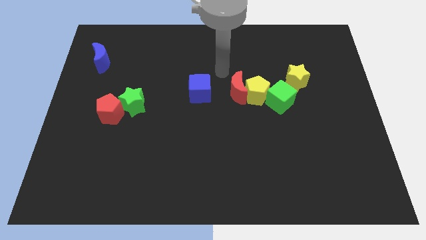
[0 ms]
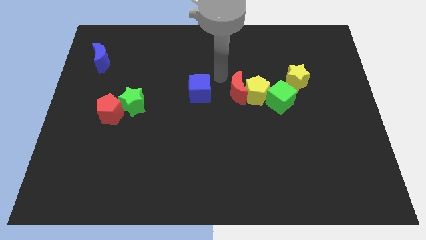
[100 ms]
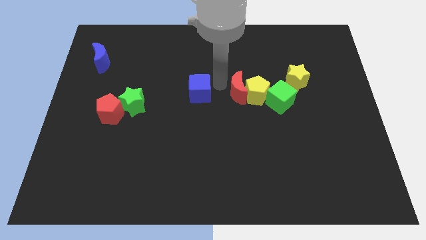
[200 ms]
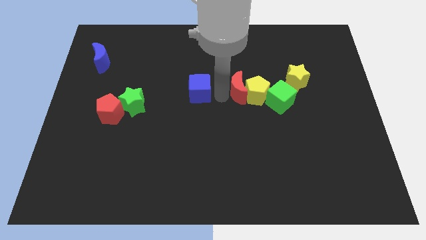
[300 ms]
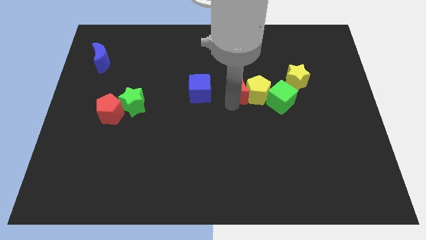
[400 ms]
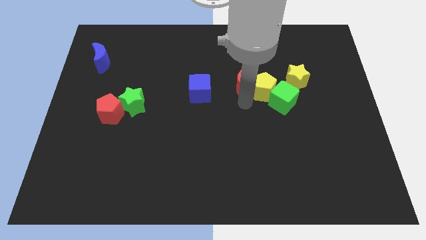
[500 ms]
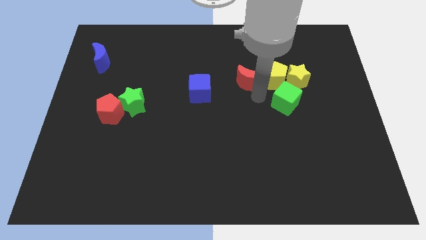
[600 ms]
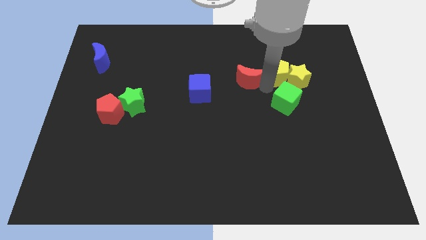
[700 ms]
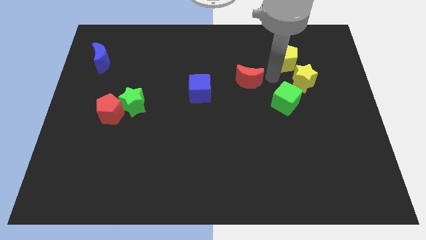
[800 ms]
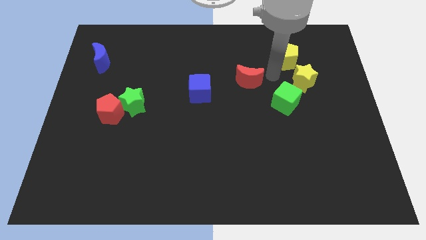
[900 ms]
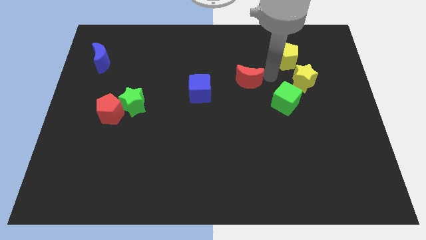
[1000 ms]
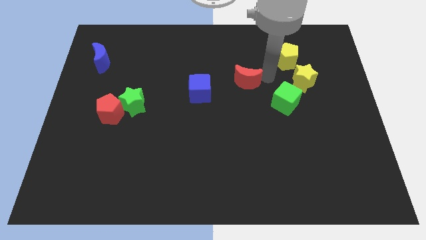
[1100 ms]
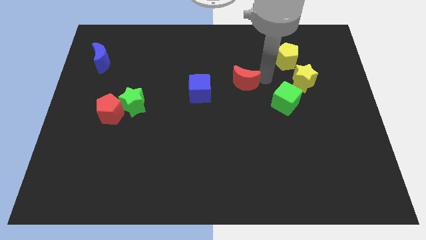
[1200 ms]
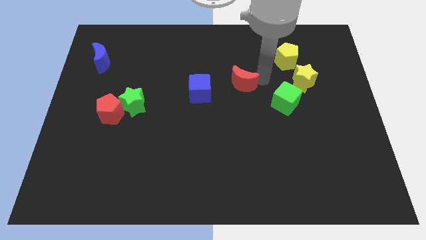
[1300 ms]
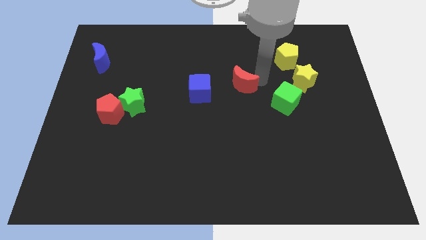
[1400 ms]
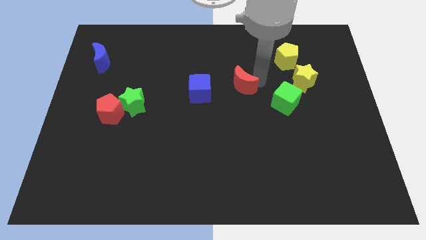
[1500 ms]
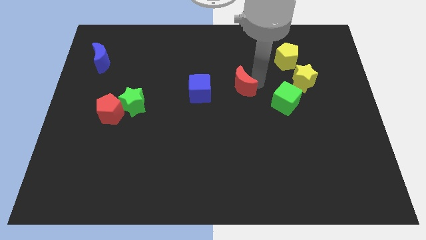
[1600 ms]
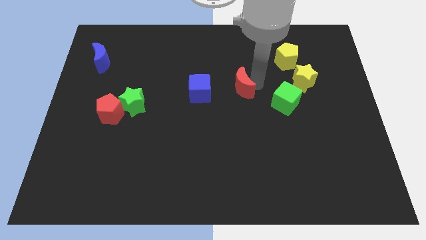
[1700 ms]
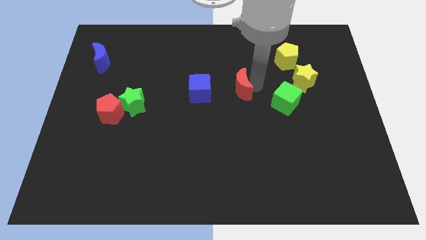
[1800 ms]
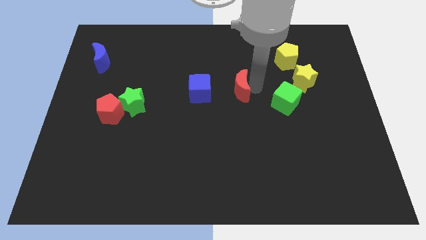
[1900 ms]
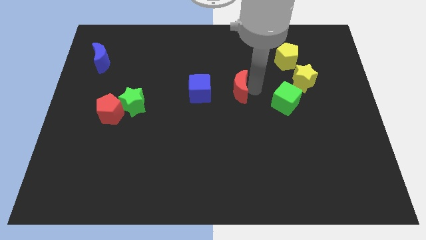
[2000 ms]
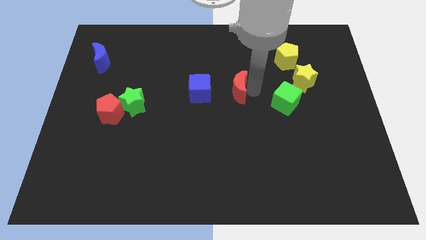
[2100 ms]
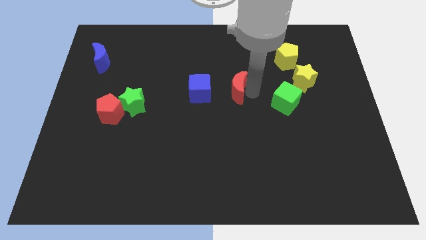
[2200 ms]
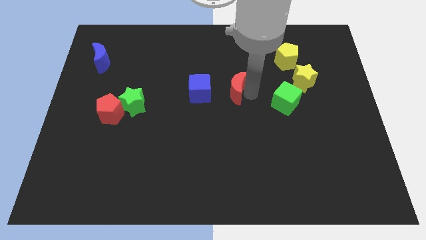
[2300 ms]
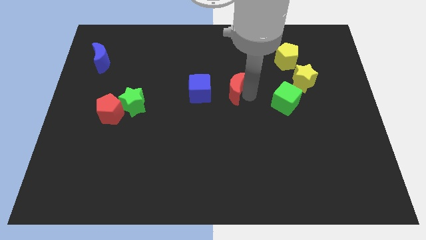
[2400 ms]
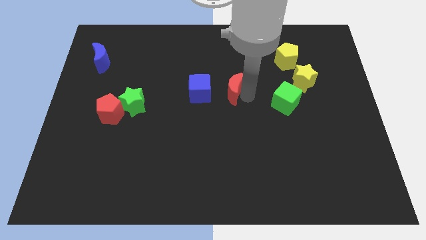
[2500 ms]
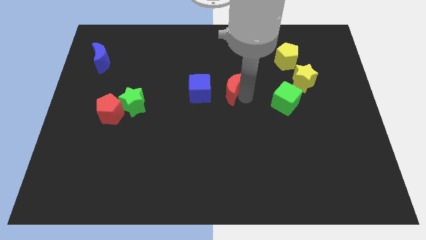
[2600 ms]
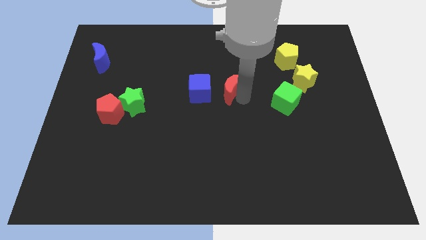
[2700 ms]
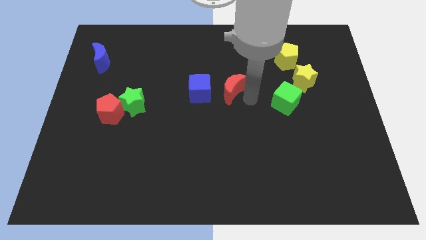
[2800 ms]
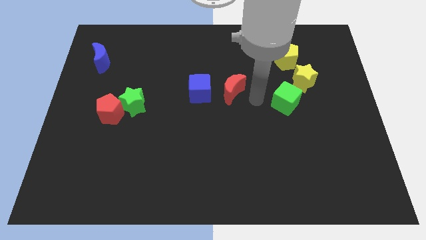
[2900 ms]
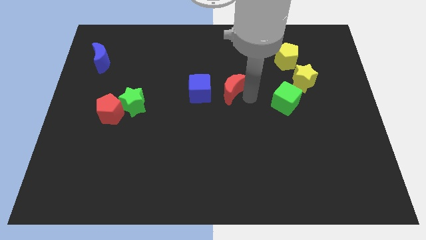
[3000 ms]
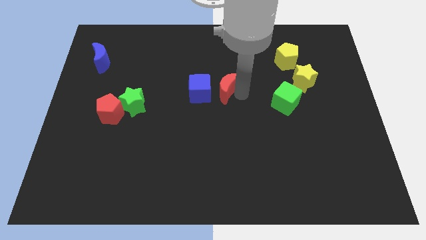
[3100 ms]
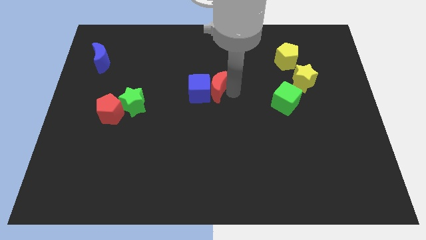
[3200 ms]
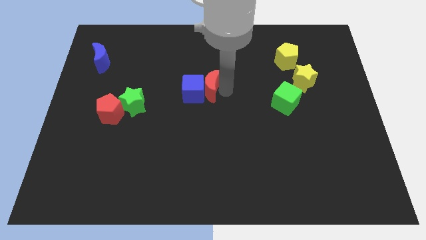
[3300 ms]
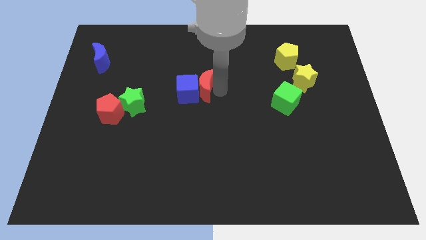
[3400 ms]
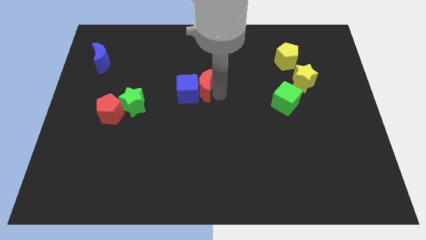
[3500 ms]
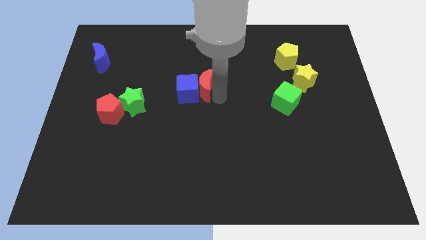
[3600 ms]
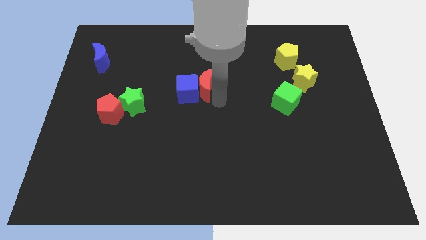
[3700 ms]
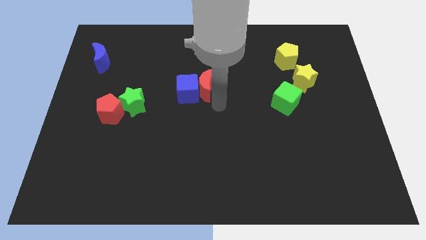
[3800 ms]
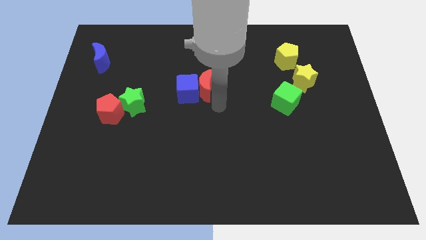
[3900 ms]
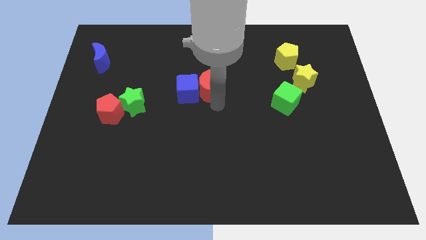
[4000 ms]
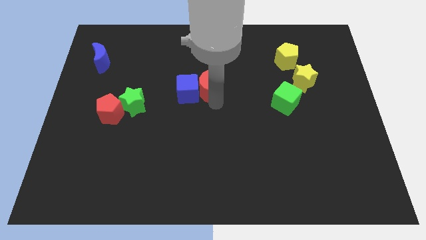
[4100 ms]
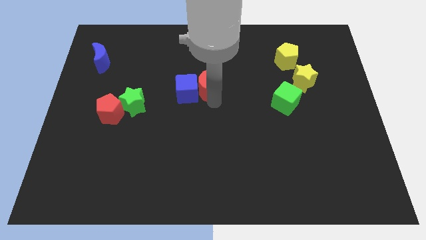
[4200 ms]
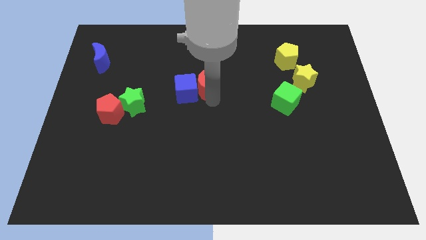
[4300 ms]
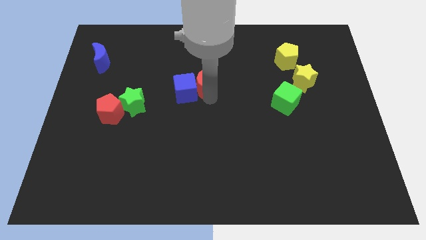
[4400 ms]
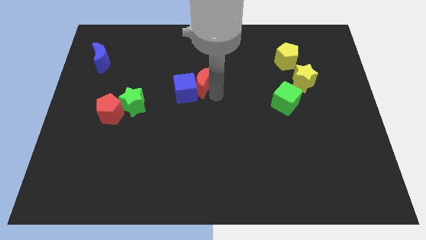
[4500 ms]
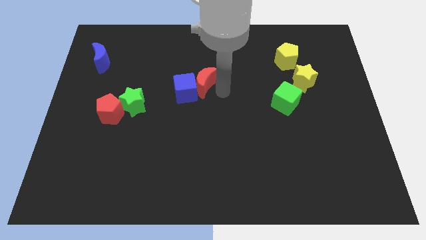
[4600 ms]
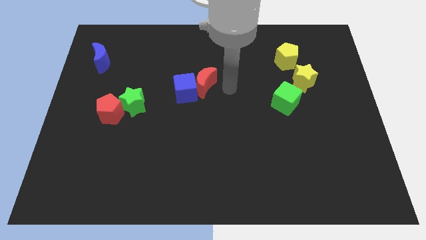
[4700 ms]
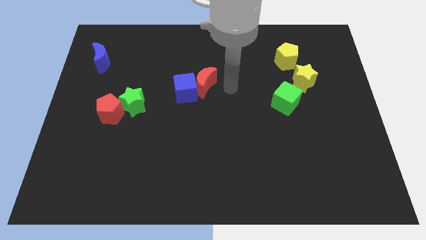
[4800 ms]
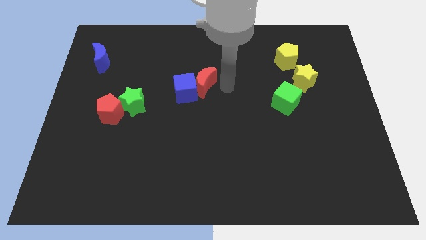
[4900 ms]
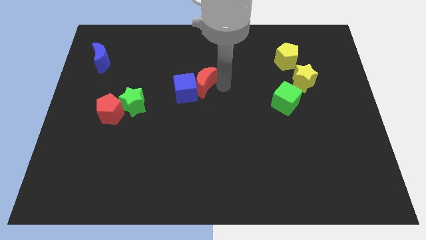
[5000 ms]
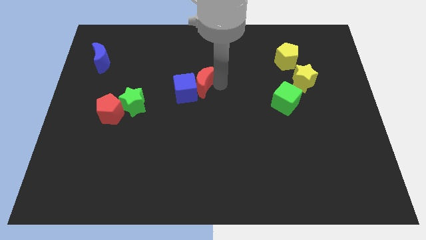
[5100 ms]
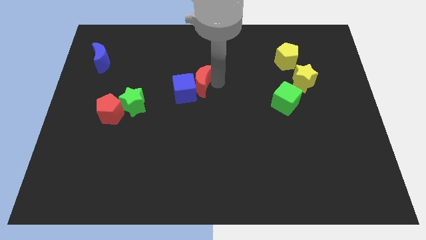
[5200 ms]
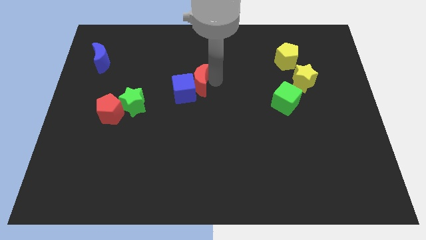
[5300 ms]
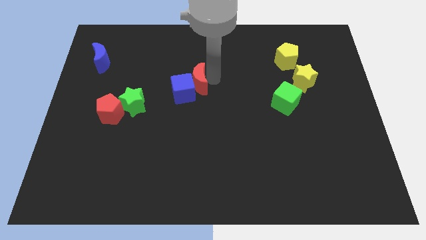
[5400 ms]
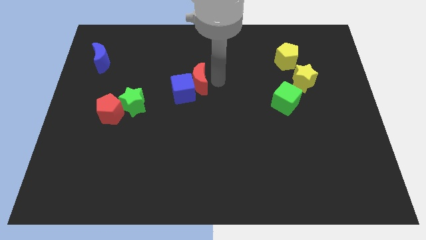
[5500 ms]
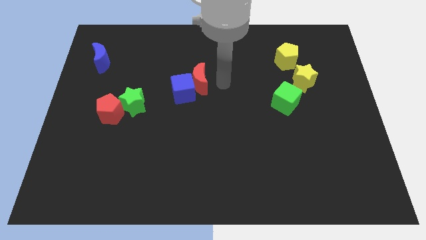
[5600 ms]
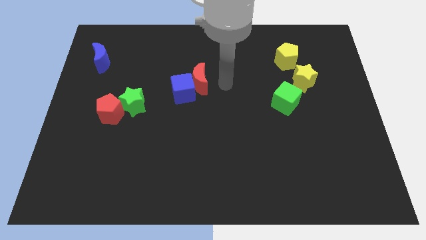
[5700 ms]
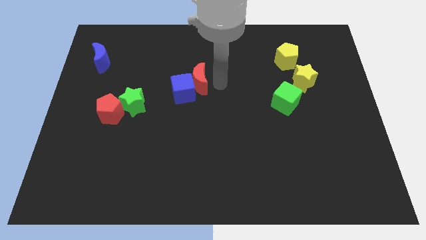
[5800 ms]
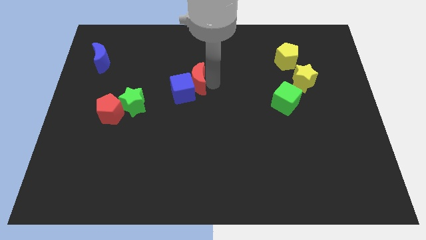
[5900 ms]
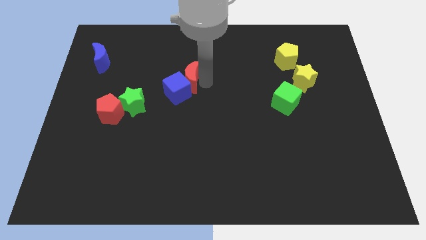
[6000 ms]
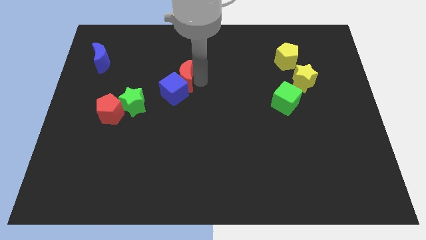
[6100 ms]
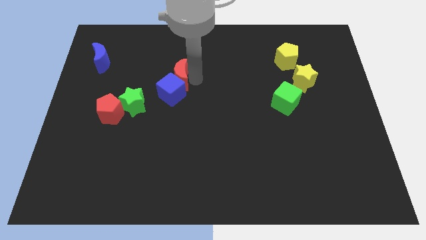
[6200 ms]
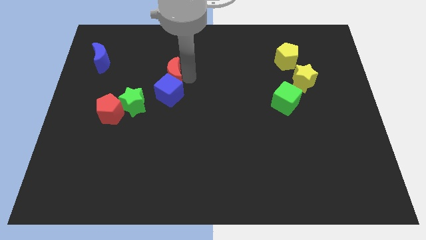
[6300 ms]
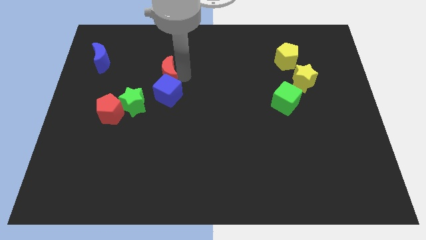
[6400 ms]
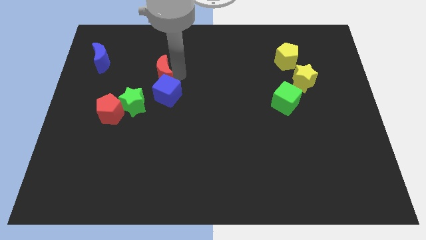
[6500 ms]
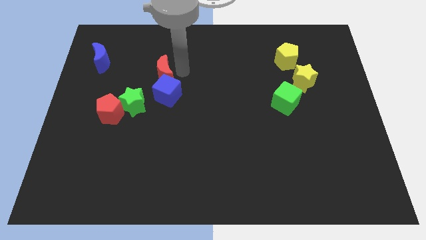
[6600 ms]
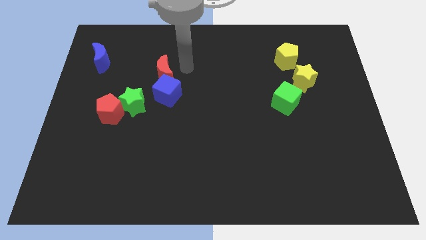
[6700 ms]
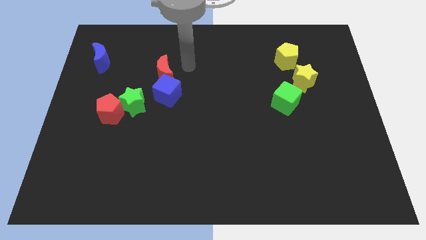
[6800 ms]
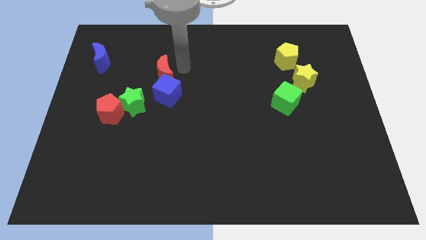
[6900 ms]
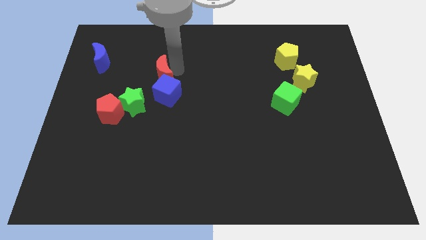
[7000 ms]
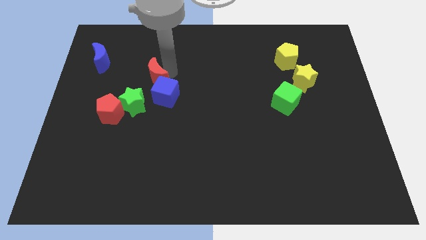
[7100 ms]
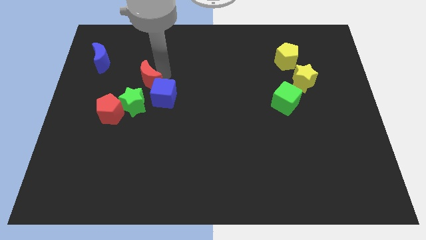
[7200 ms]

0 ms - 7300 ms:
push the red moon to the left

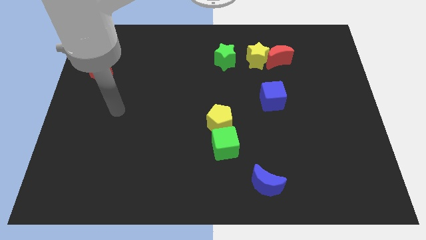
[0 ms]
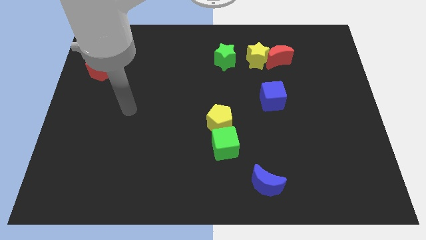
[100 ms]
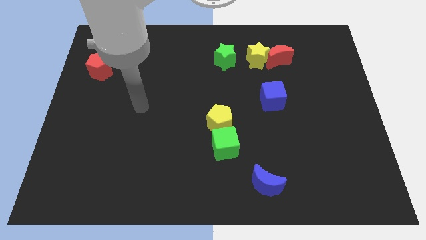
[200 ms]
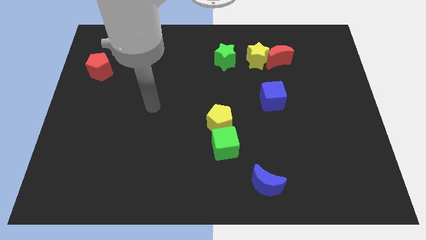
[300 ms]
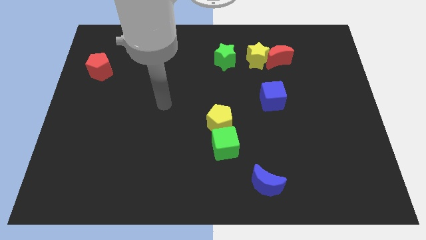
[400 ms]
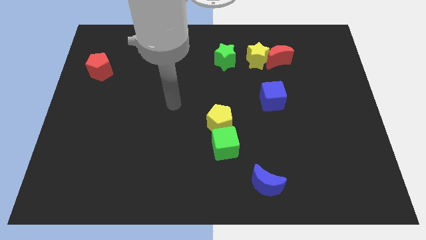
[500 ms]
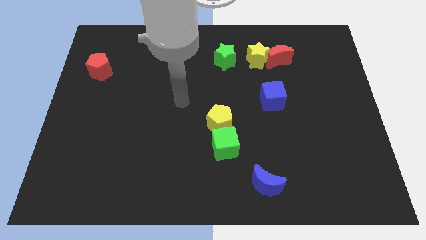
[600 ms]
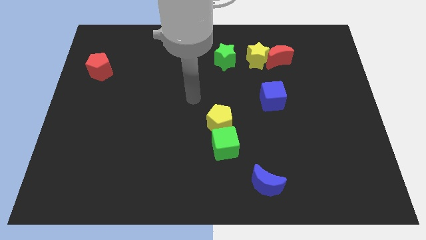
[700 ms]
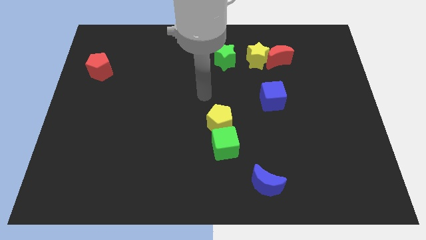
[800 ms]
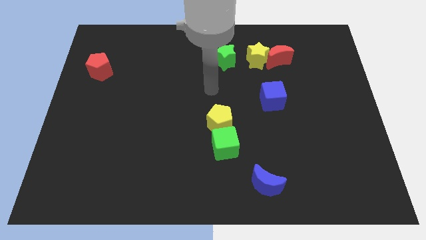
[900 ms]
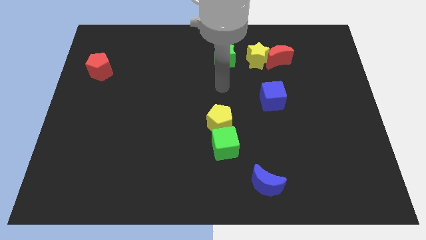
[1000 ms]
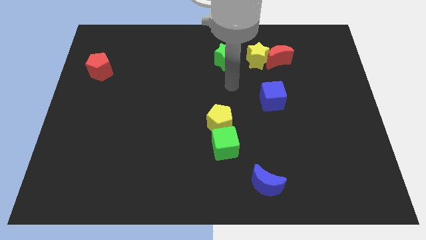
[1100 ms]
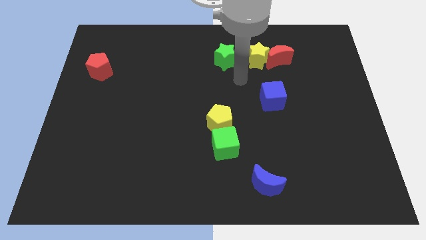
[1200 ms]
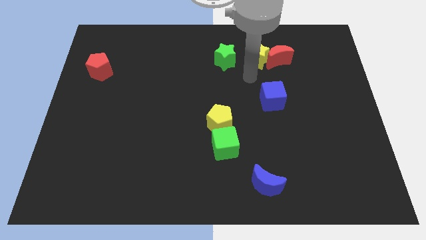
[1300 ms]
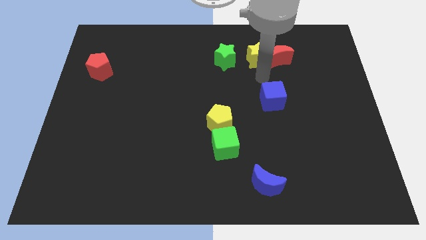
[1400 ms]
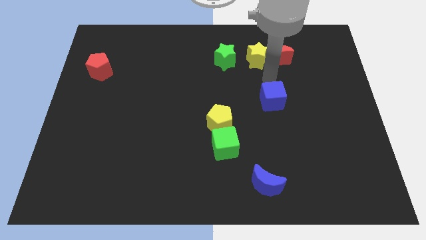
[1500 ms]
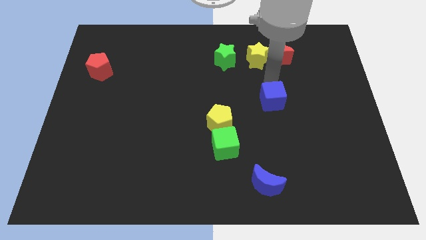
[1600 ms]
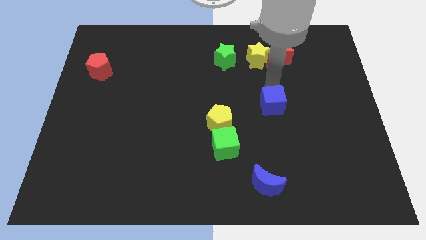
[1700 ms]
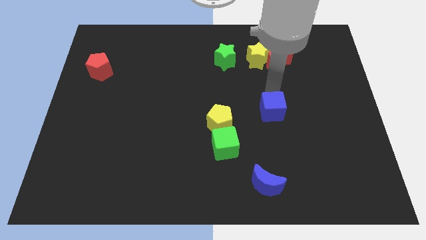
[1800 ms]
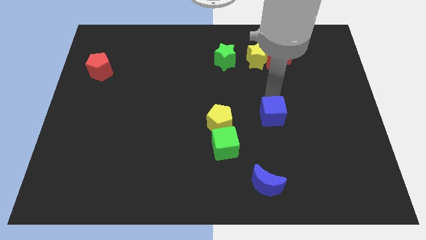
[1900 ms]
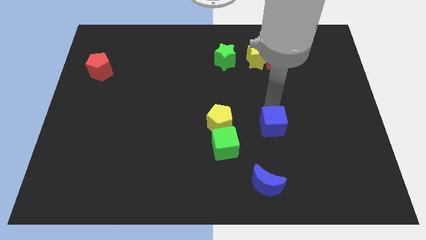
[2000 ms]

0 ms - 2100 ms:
move the blue cube down somewhat
